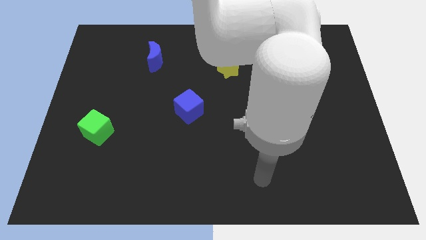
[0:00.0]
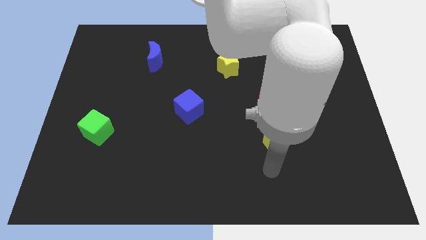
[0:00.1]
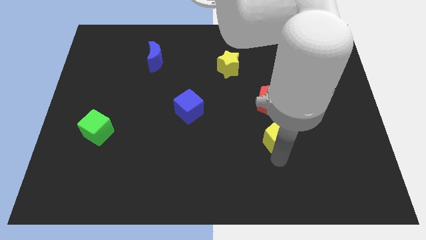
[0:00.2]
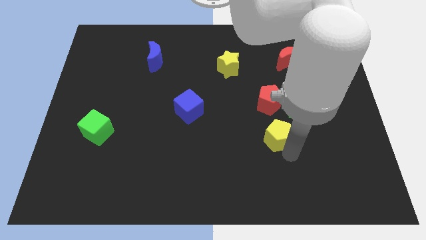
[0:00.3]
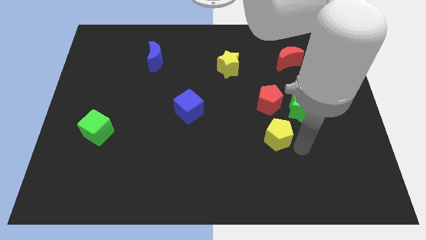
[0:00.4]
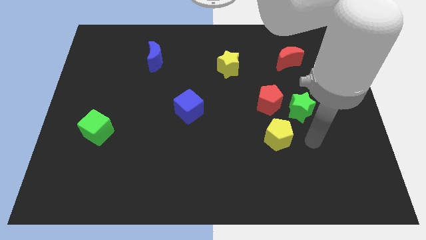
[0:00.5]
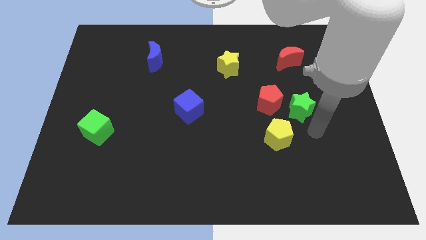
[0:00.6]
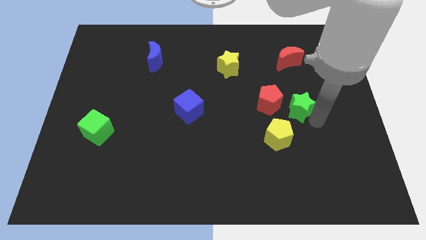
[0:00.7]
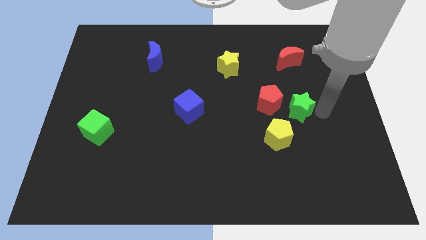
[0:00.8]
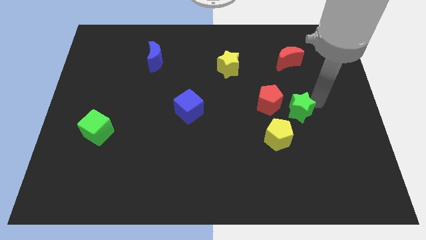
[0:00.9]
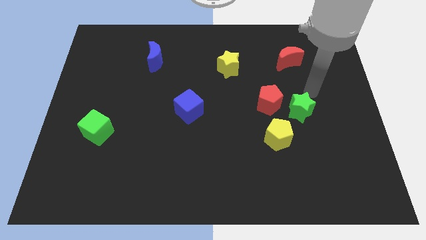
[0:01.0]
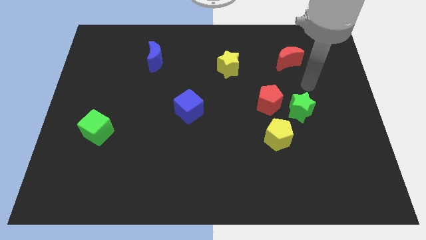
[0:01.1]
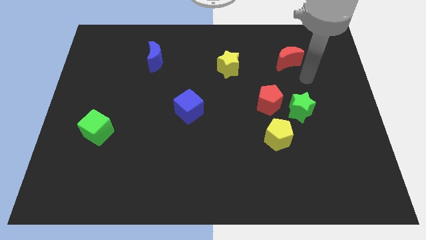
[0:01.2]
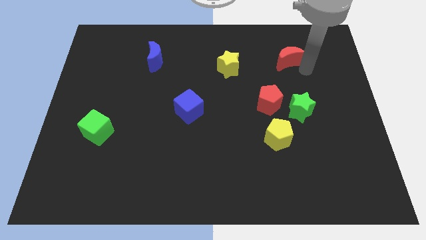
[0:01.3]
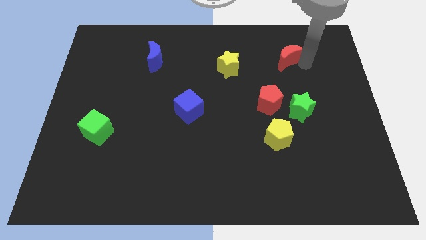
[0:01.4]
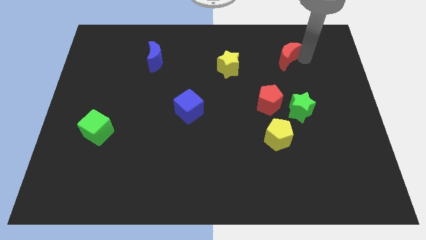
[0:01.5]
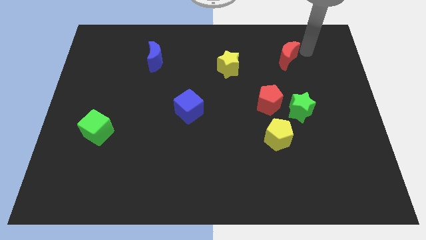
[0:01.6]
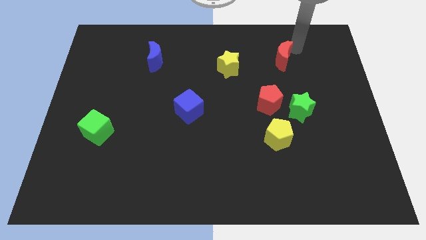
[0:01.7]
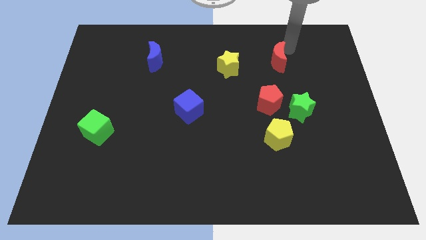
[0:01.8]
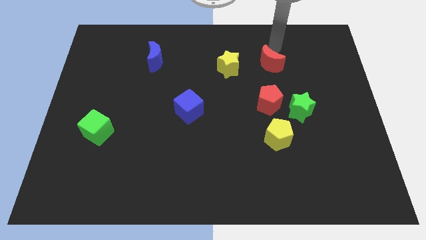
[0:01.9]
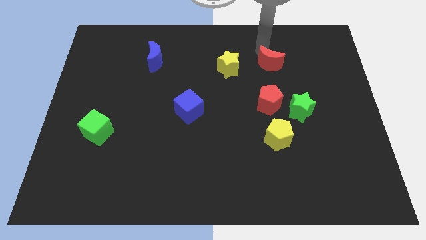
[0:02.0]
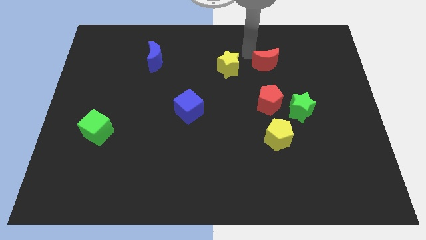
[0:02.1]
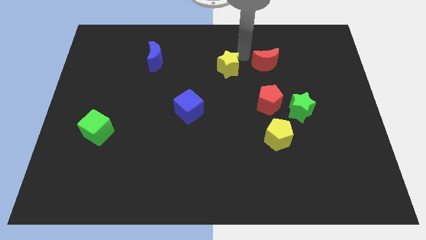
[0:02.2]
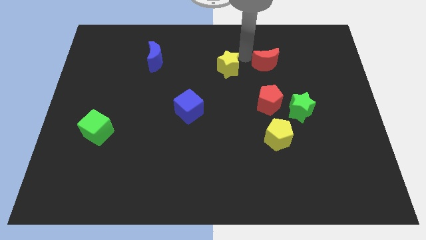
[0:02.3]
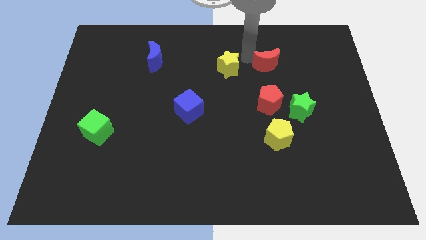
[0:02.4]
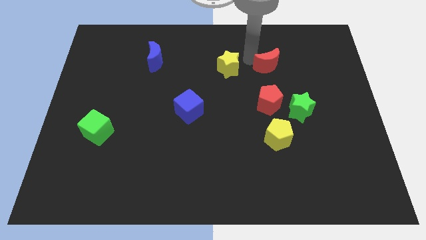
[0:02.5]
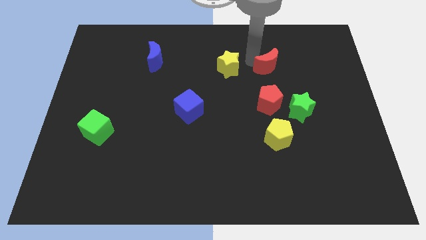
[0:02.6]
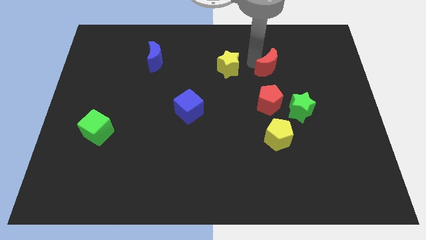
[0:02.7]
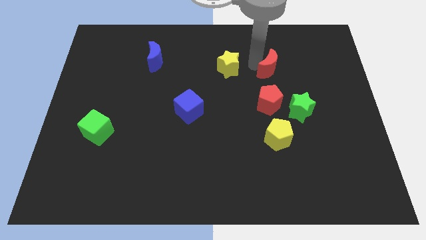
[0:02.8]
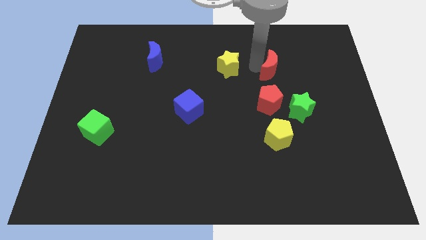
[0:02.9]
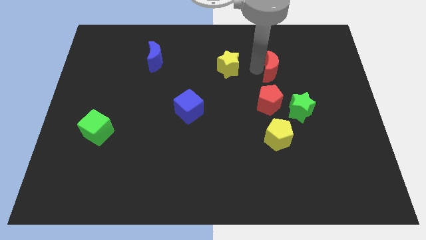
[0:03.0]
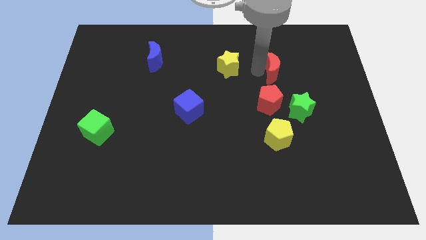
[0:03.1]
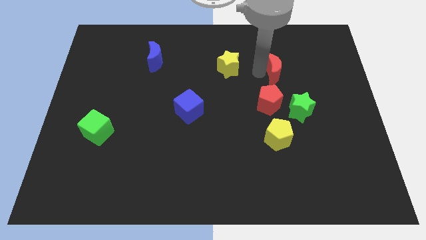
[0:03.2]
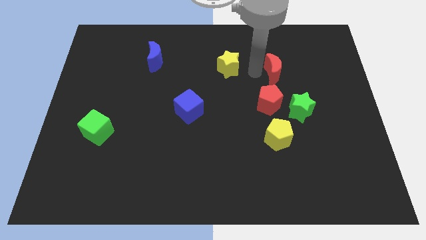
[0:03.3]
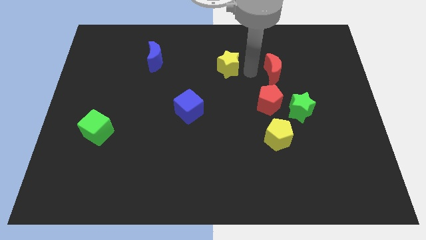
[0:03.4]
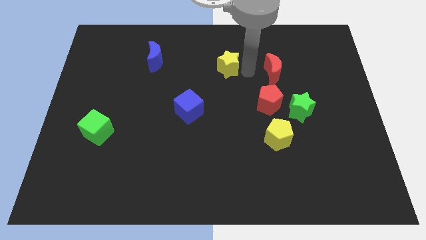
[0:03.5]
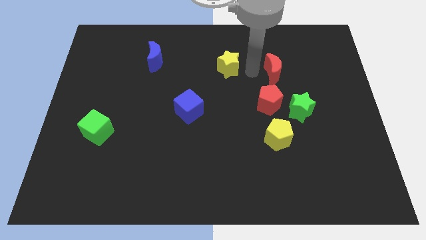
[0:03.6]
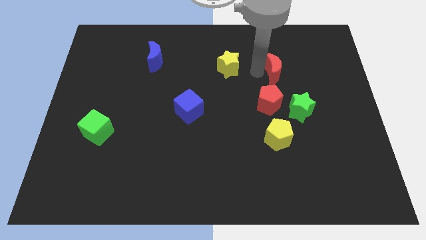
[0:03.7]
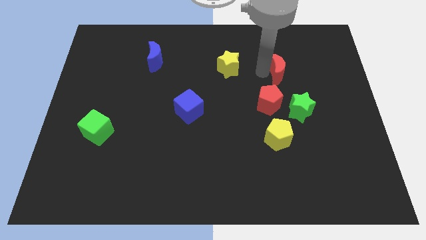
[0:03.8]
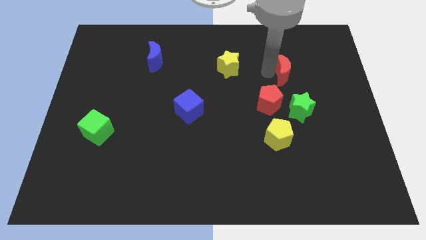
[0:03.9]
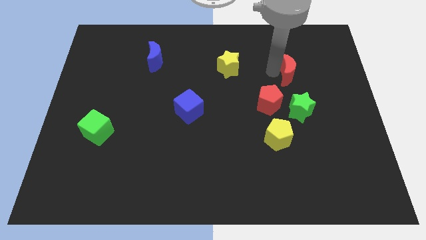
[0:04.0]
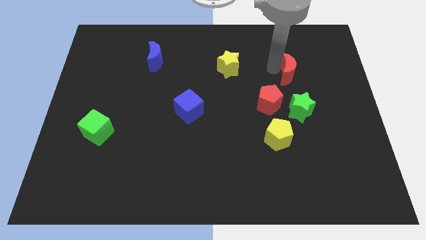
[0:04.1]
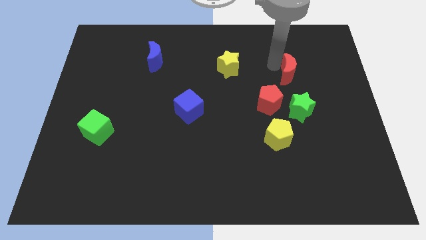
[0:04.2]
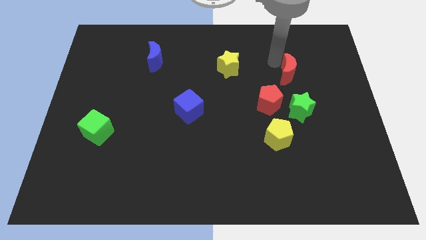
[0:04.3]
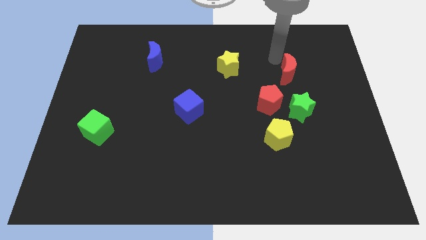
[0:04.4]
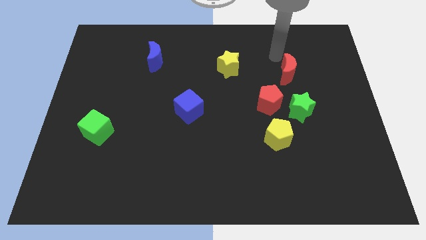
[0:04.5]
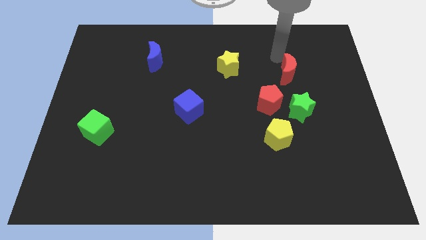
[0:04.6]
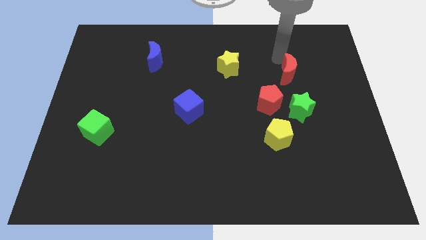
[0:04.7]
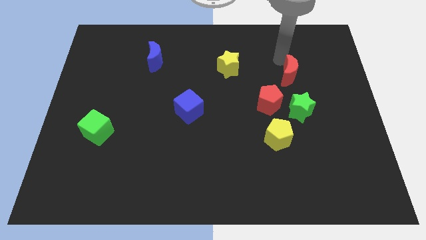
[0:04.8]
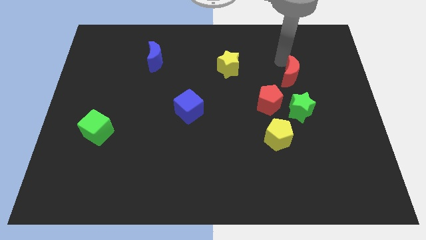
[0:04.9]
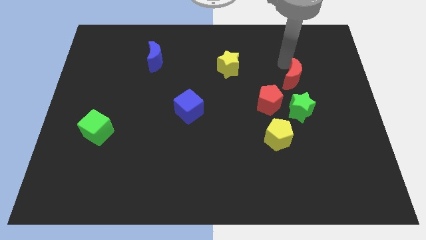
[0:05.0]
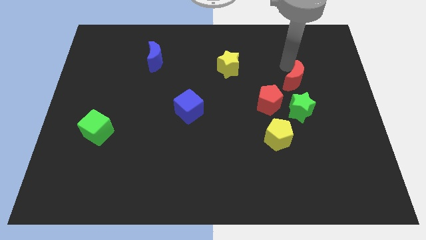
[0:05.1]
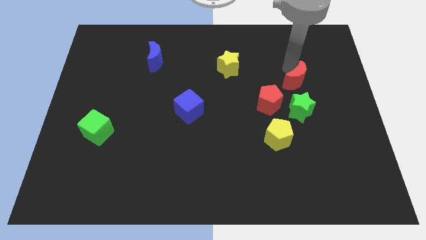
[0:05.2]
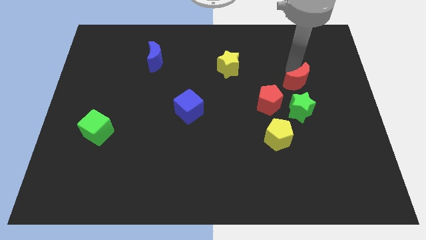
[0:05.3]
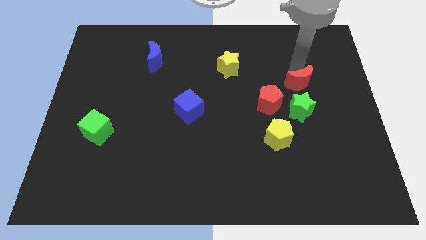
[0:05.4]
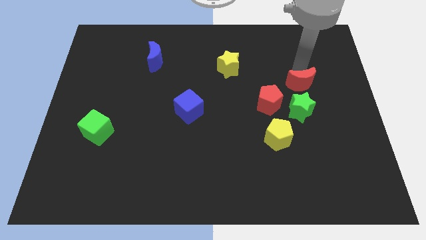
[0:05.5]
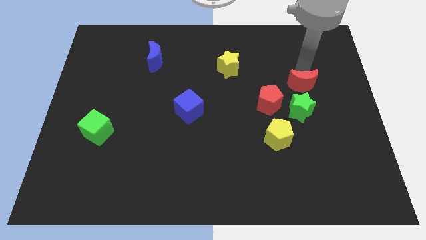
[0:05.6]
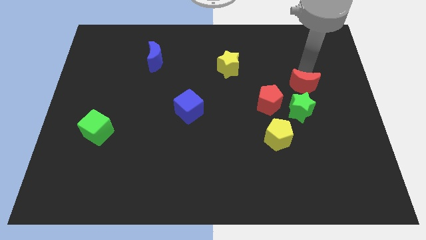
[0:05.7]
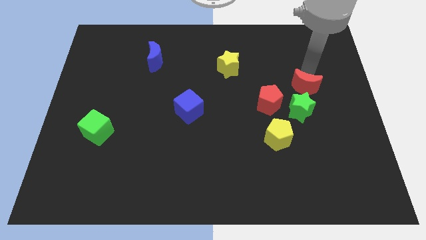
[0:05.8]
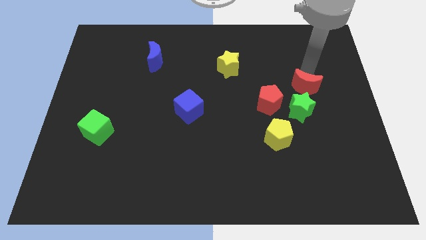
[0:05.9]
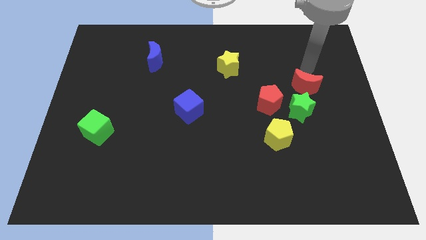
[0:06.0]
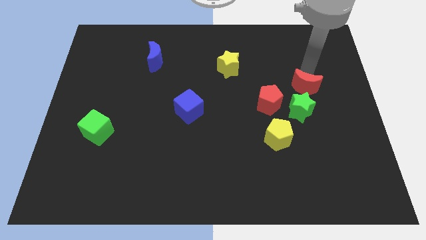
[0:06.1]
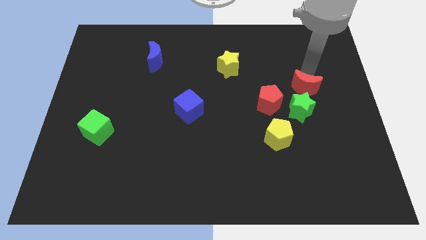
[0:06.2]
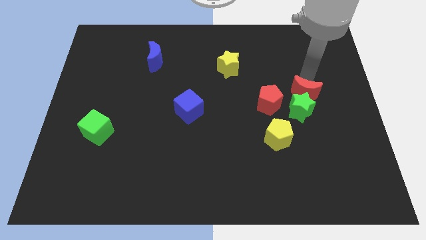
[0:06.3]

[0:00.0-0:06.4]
put the red moon to the green star

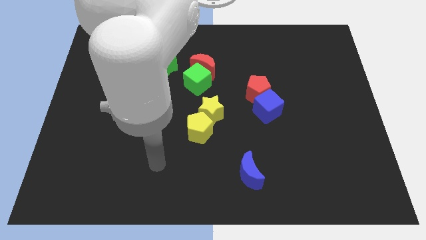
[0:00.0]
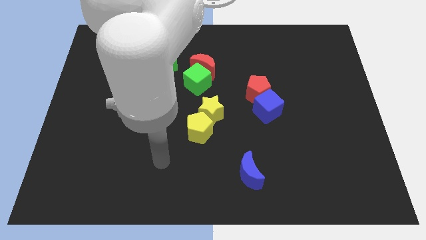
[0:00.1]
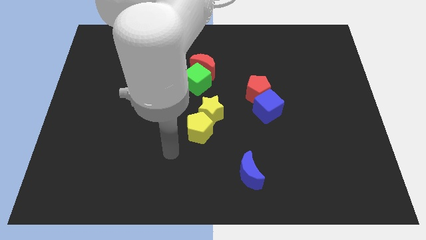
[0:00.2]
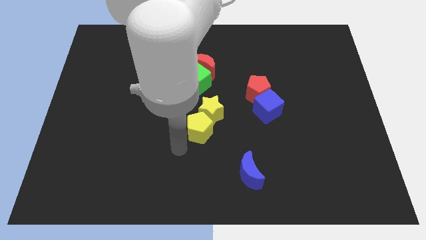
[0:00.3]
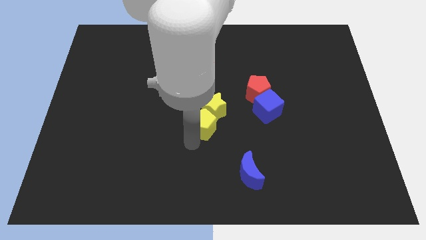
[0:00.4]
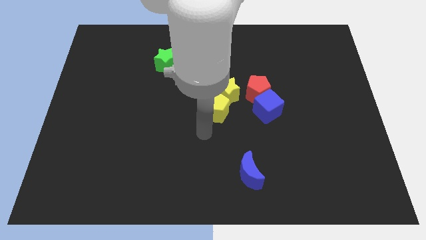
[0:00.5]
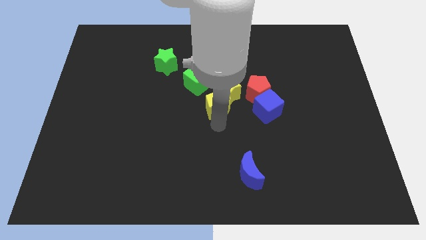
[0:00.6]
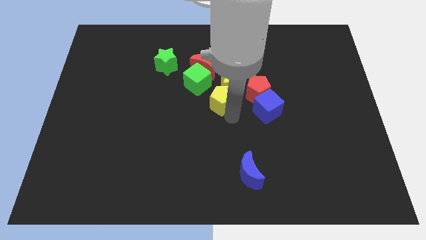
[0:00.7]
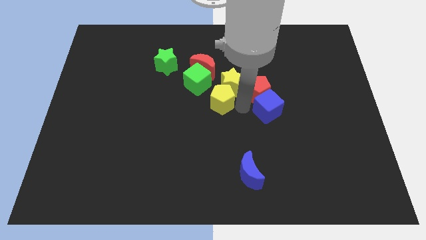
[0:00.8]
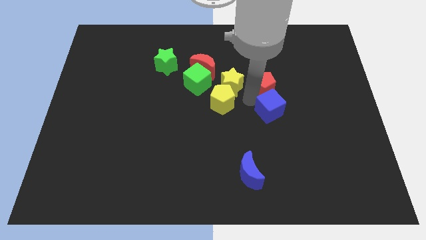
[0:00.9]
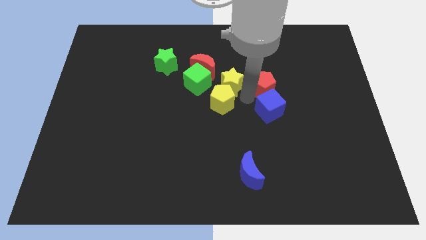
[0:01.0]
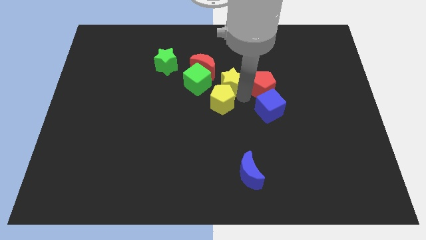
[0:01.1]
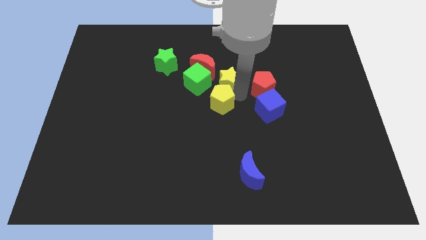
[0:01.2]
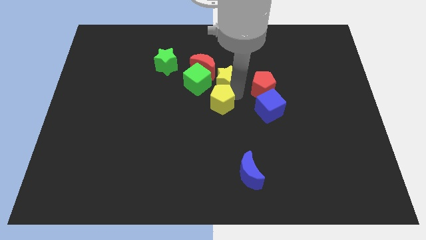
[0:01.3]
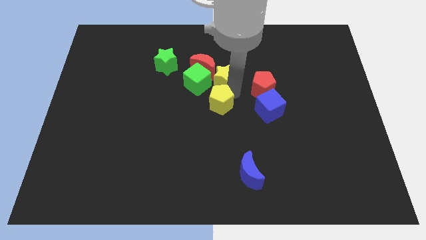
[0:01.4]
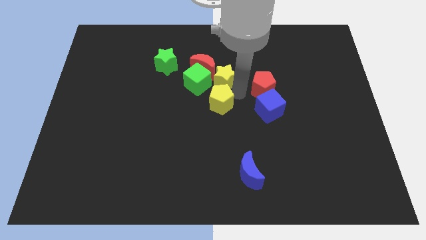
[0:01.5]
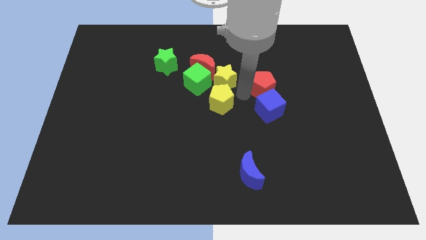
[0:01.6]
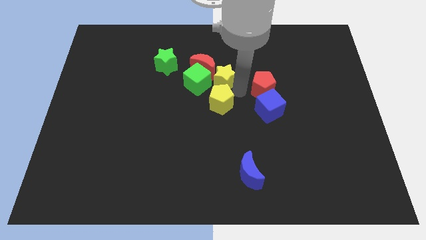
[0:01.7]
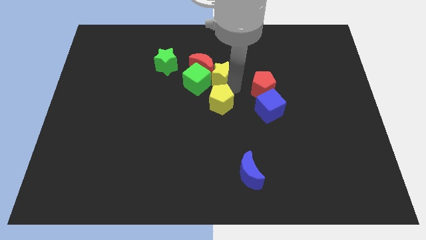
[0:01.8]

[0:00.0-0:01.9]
slide the yellow star towards the red moon
